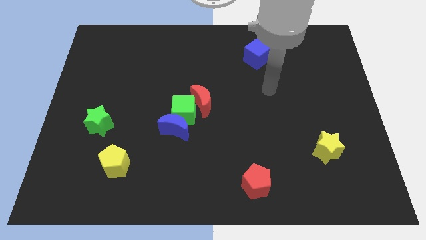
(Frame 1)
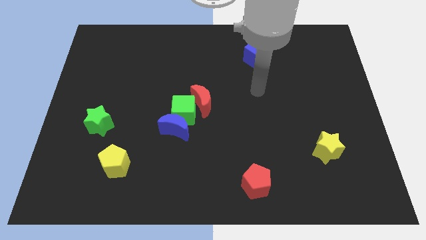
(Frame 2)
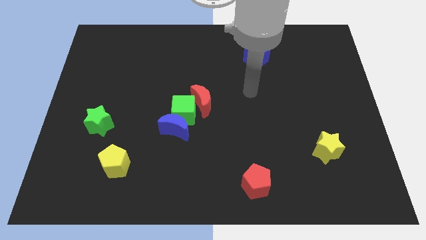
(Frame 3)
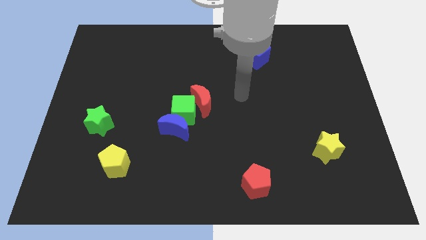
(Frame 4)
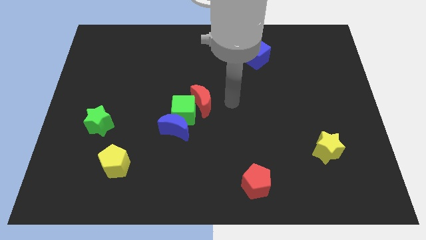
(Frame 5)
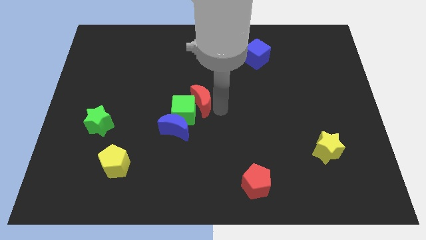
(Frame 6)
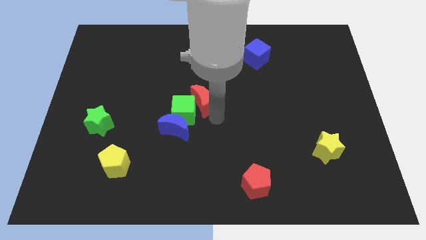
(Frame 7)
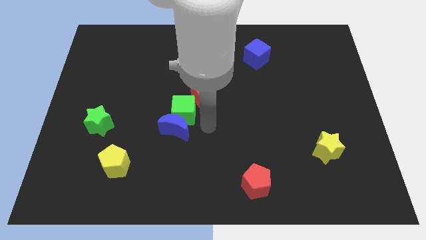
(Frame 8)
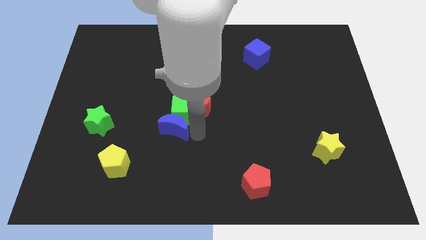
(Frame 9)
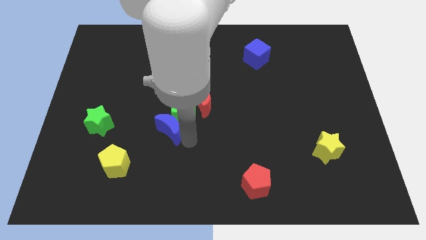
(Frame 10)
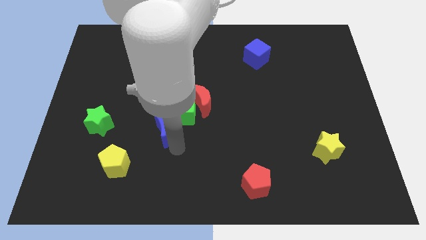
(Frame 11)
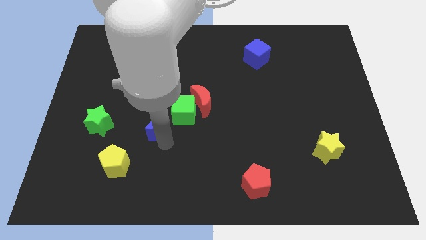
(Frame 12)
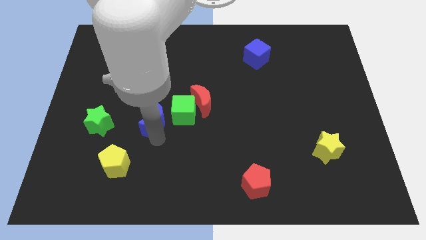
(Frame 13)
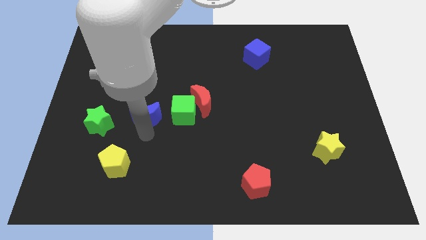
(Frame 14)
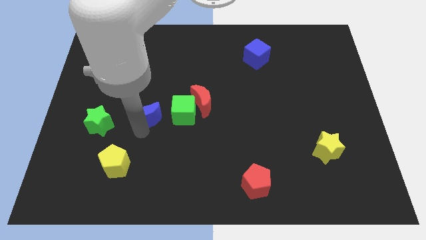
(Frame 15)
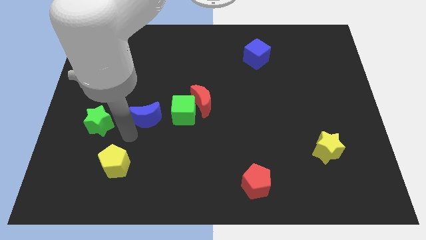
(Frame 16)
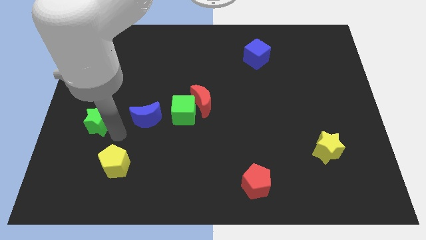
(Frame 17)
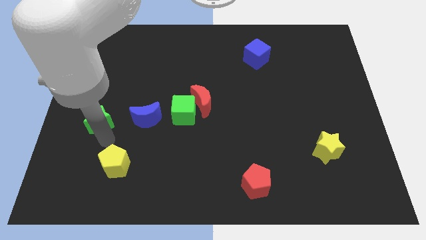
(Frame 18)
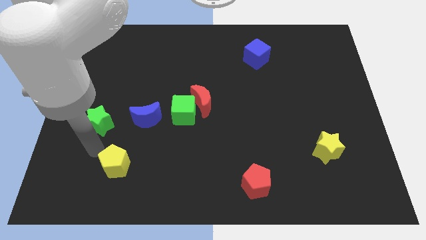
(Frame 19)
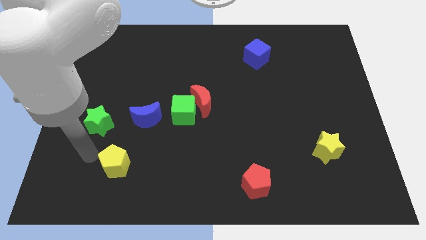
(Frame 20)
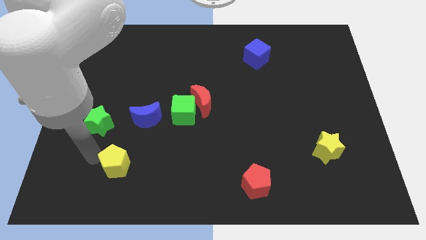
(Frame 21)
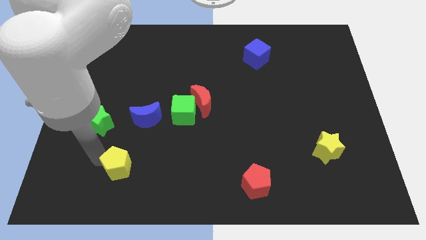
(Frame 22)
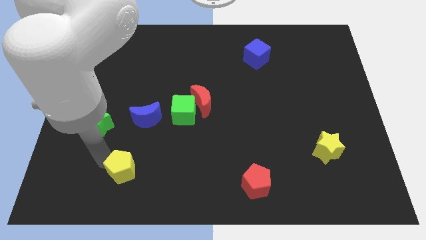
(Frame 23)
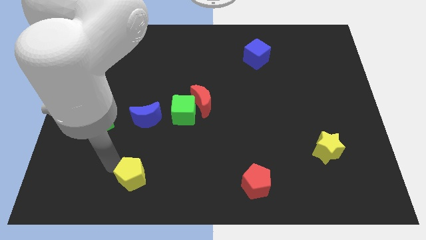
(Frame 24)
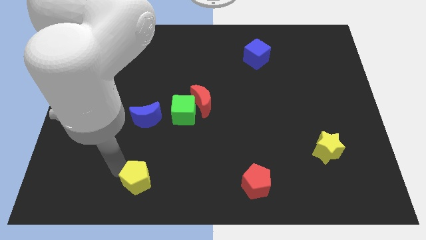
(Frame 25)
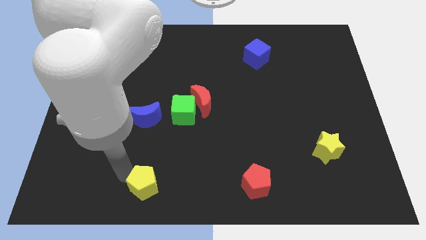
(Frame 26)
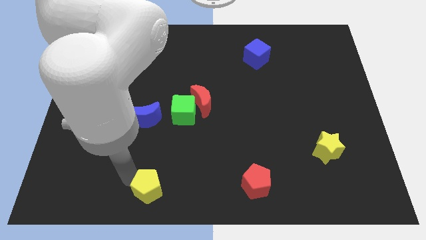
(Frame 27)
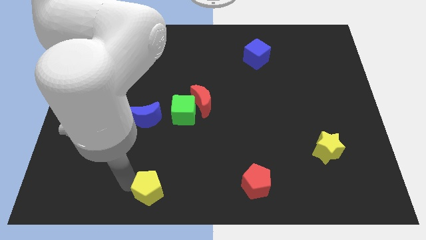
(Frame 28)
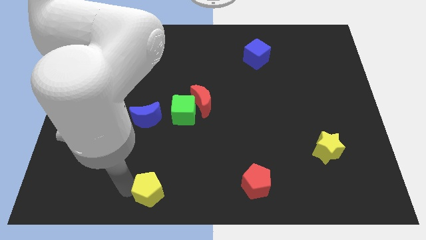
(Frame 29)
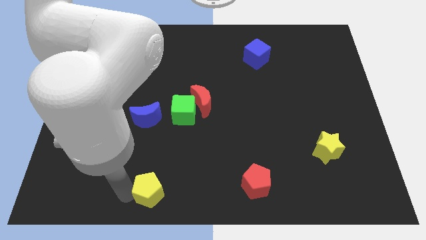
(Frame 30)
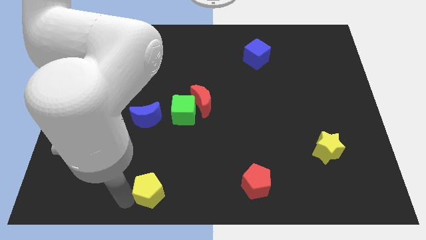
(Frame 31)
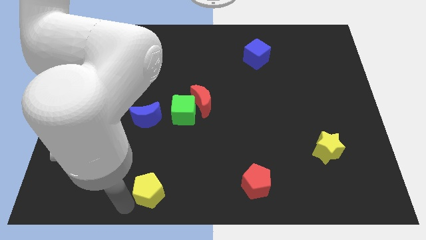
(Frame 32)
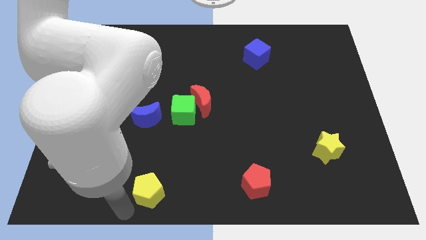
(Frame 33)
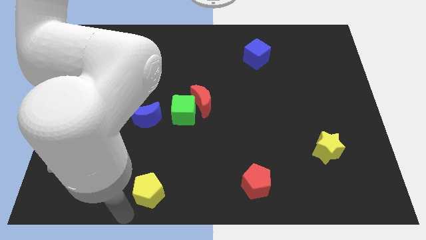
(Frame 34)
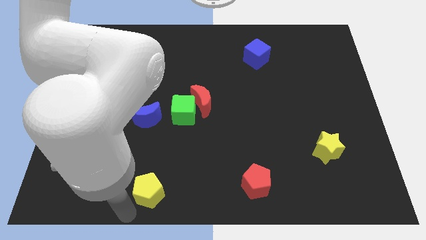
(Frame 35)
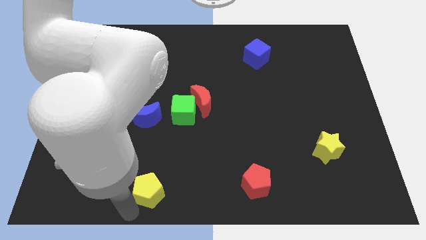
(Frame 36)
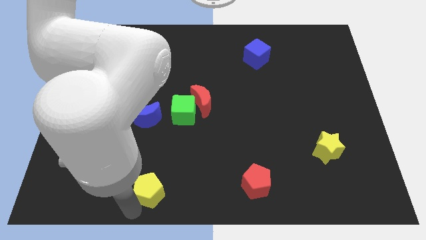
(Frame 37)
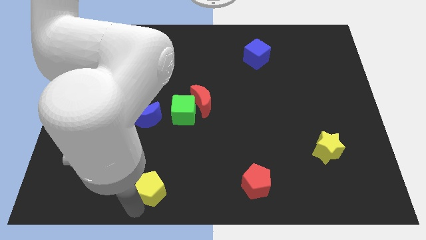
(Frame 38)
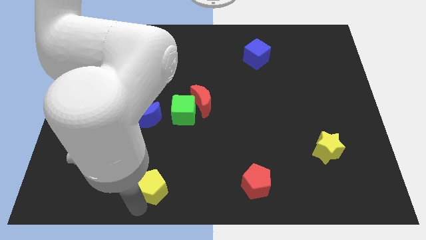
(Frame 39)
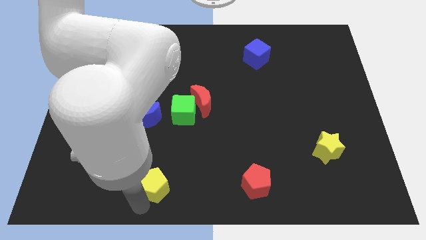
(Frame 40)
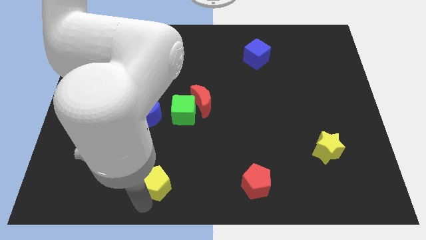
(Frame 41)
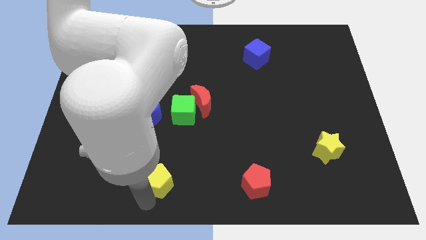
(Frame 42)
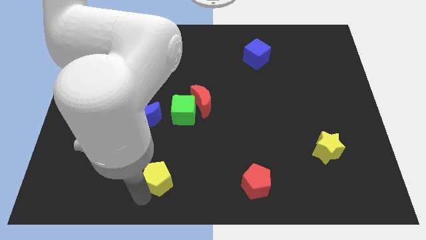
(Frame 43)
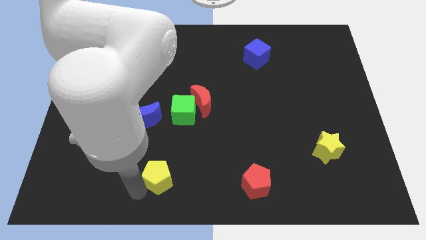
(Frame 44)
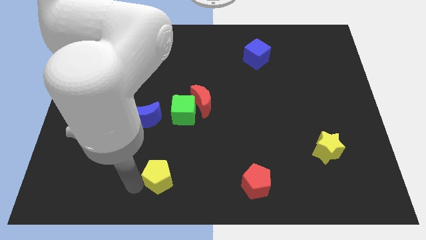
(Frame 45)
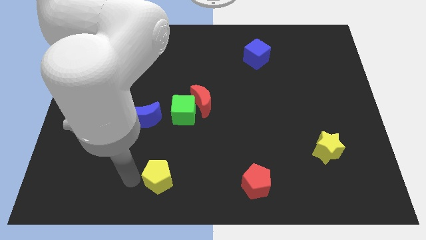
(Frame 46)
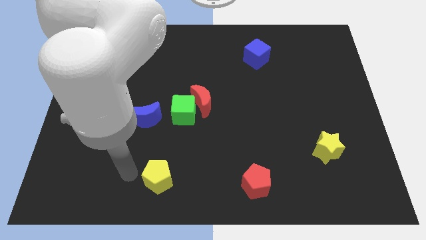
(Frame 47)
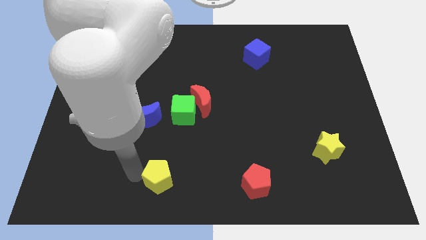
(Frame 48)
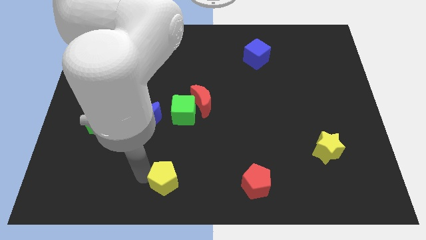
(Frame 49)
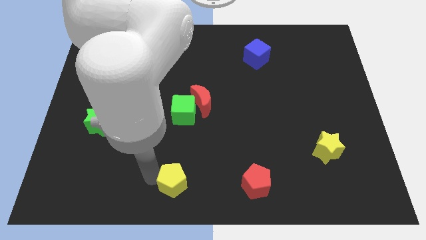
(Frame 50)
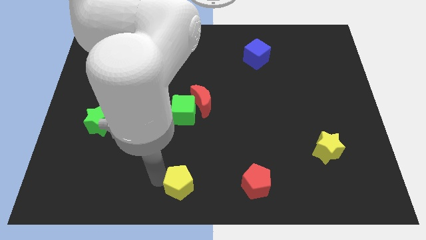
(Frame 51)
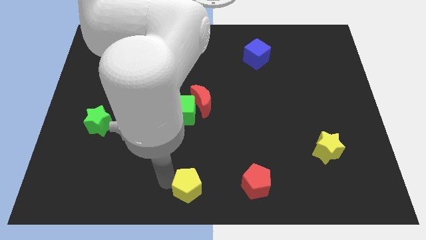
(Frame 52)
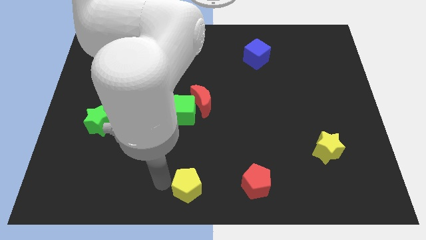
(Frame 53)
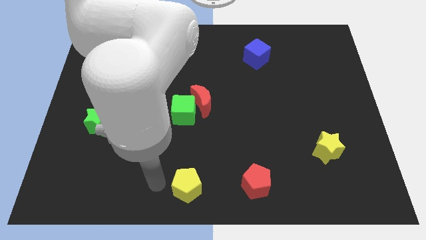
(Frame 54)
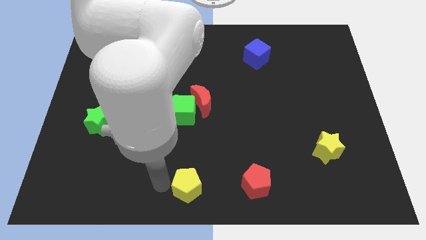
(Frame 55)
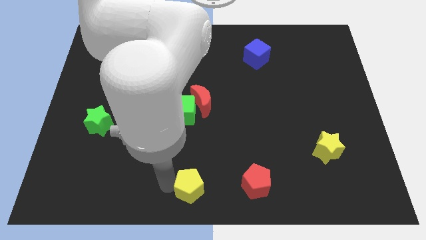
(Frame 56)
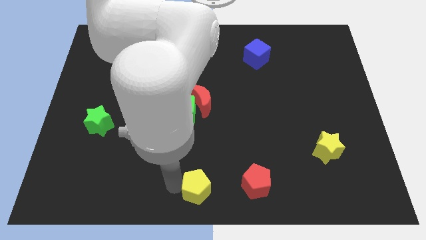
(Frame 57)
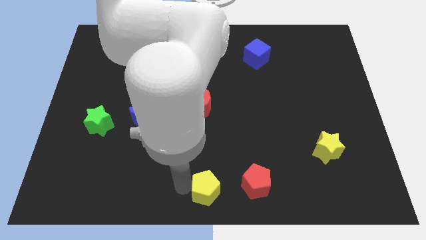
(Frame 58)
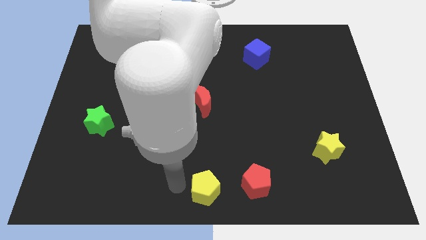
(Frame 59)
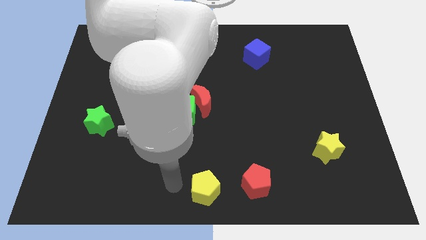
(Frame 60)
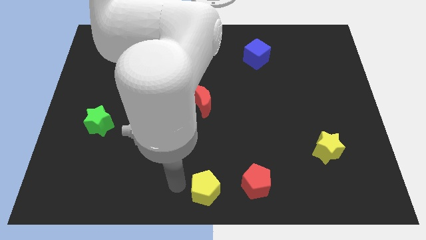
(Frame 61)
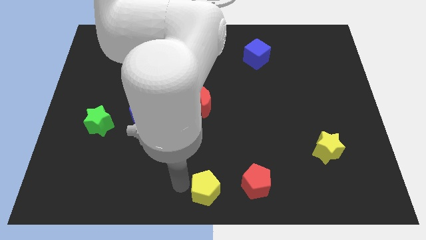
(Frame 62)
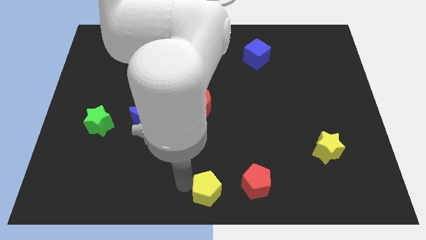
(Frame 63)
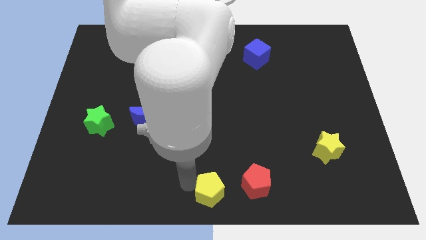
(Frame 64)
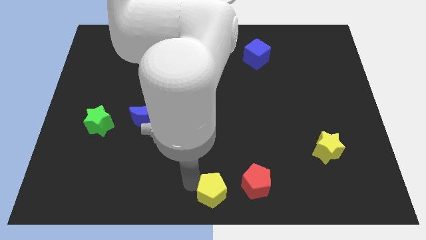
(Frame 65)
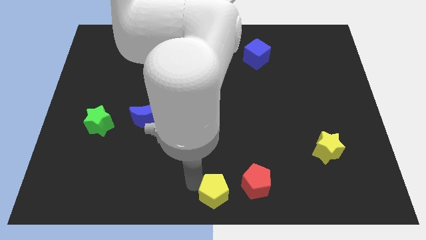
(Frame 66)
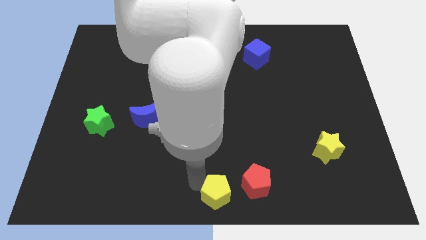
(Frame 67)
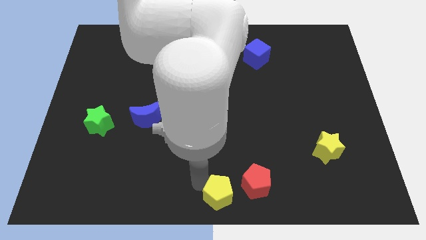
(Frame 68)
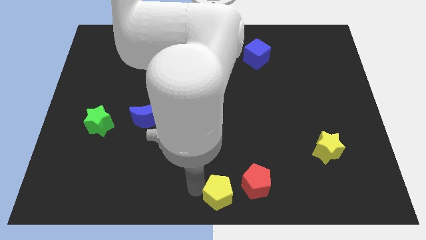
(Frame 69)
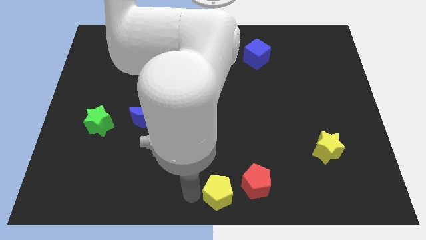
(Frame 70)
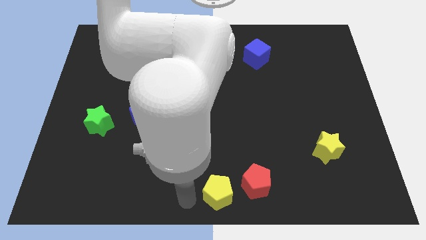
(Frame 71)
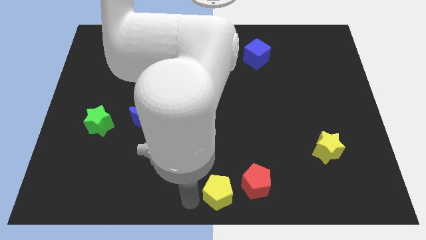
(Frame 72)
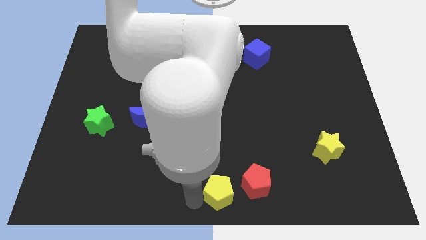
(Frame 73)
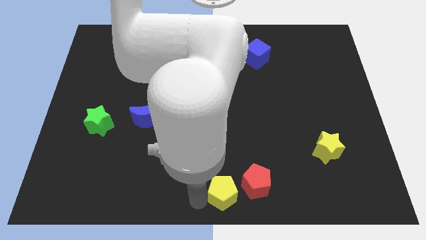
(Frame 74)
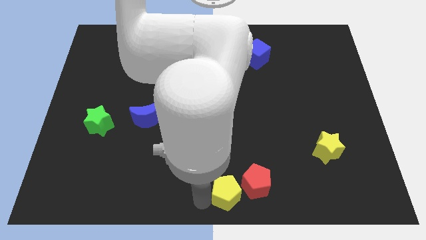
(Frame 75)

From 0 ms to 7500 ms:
slide the yellow pentagon close to the red pentagon
